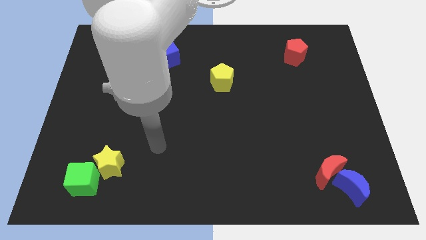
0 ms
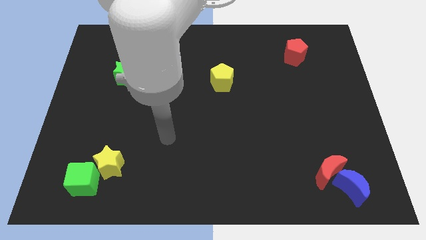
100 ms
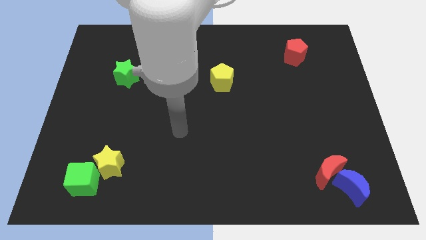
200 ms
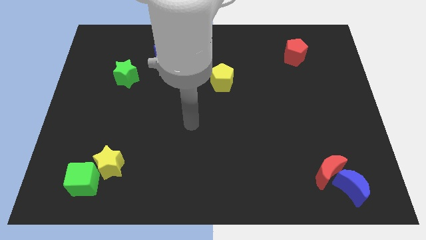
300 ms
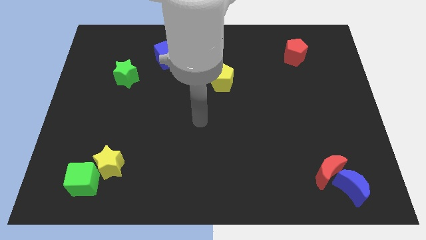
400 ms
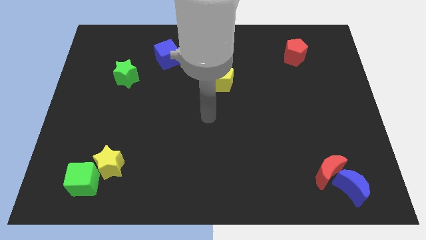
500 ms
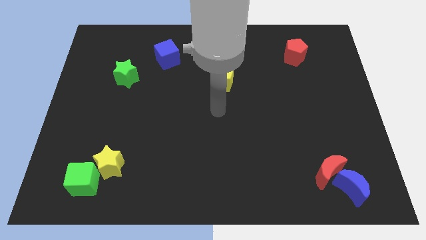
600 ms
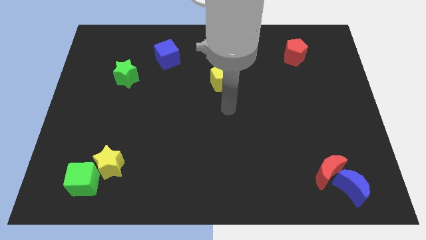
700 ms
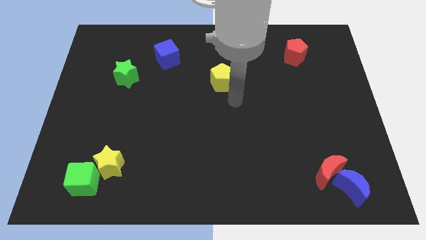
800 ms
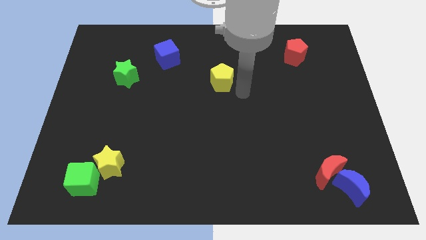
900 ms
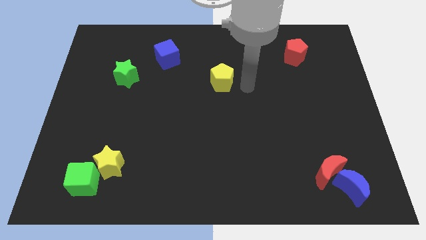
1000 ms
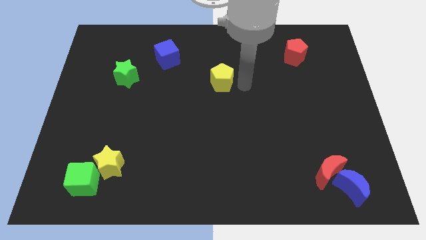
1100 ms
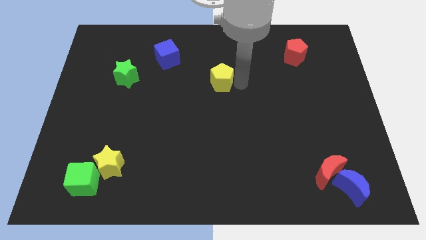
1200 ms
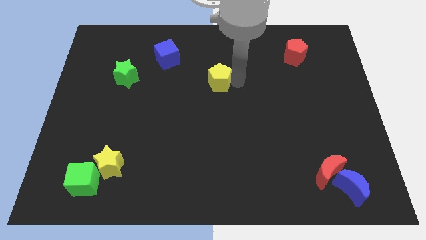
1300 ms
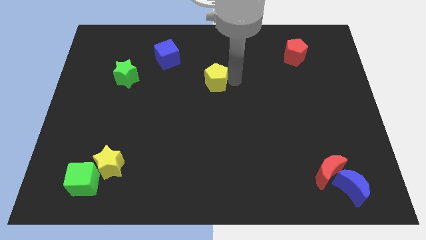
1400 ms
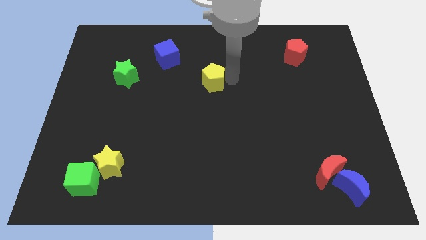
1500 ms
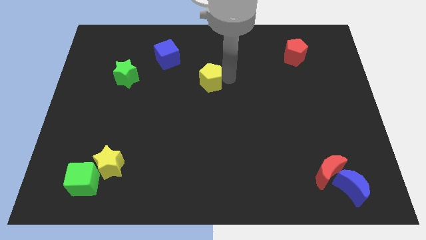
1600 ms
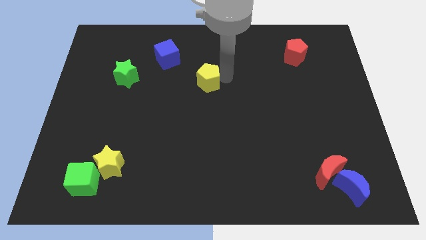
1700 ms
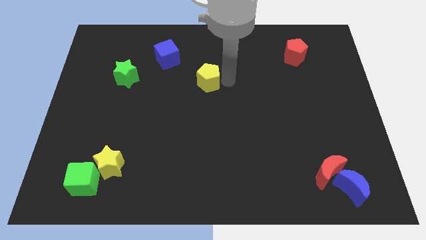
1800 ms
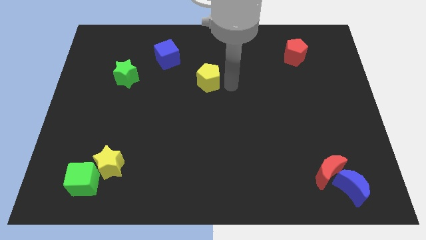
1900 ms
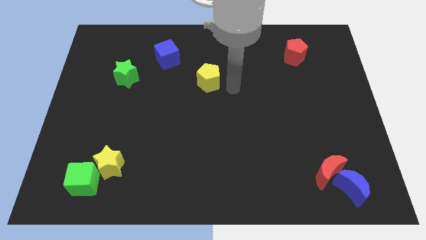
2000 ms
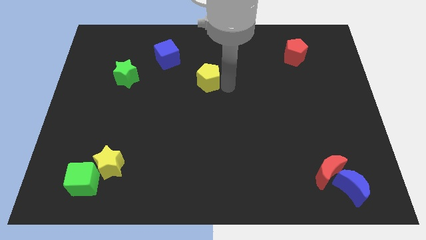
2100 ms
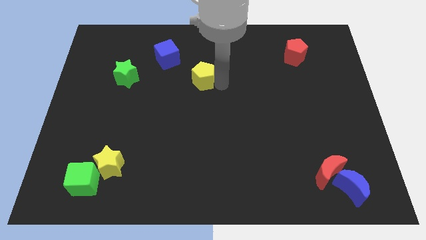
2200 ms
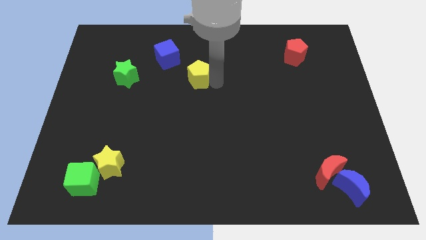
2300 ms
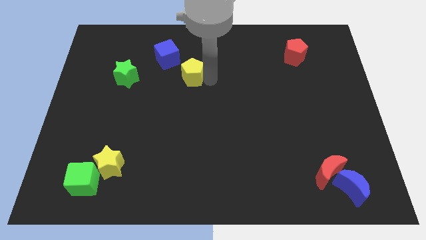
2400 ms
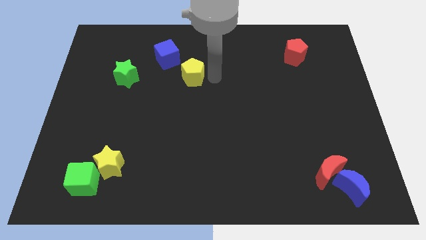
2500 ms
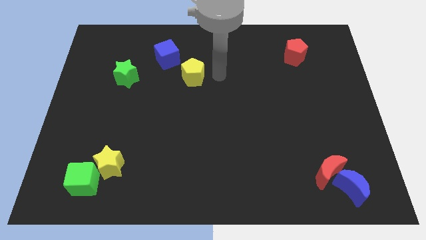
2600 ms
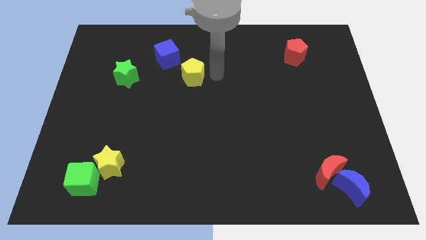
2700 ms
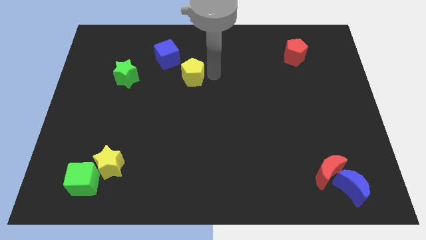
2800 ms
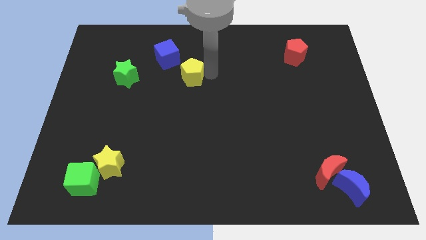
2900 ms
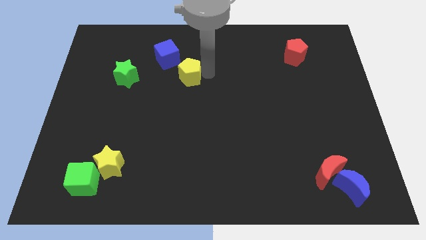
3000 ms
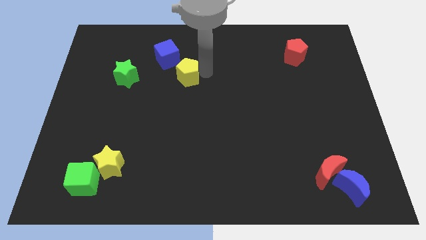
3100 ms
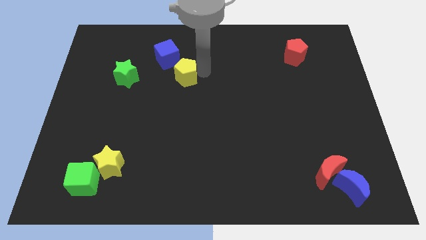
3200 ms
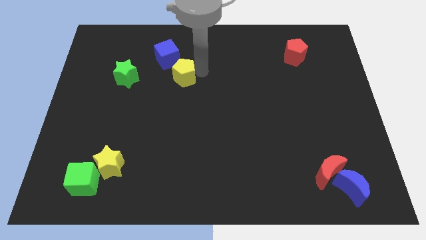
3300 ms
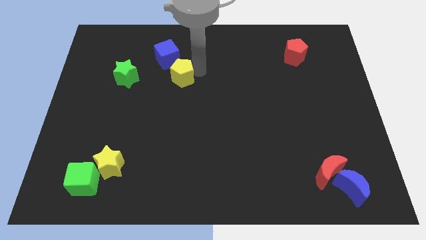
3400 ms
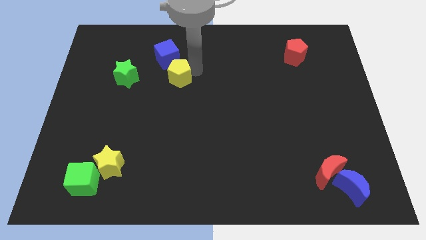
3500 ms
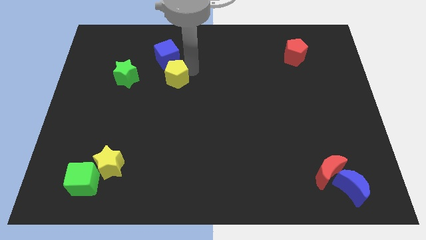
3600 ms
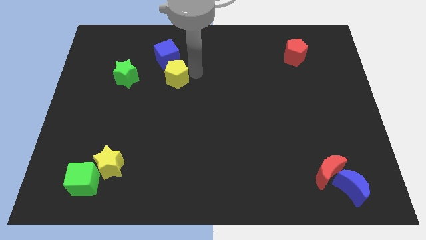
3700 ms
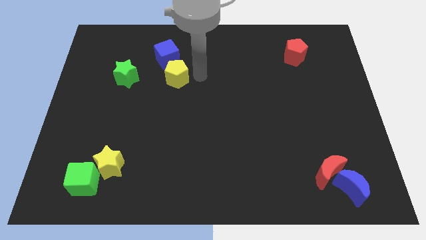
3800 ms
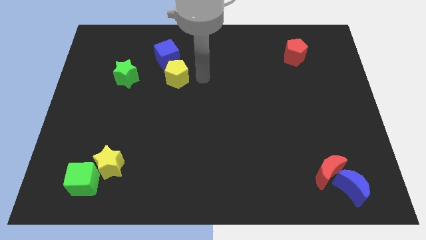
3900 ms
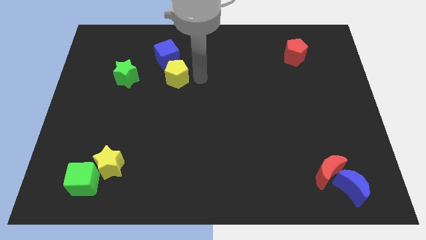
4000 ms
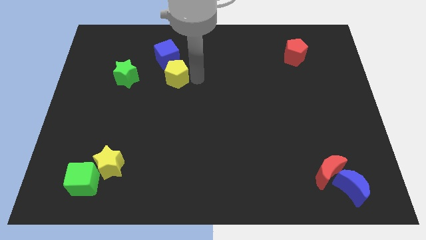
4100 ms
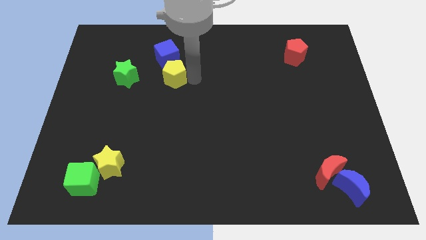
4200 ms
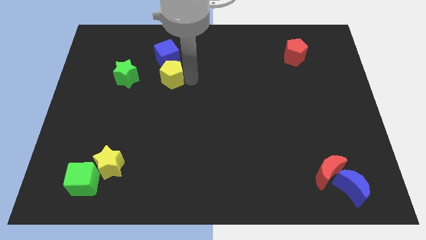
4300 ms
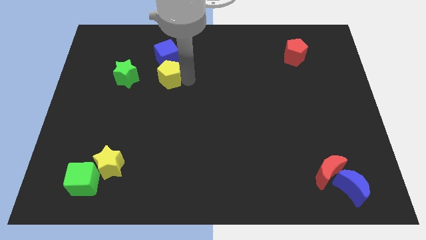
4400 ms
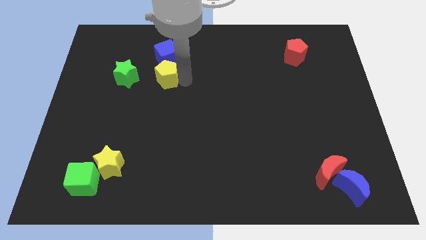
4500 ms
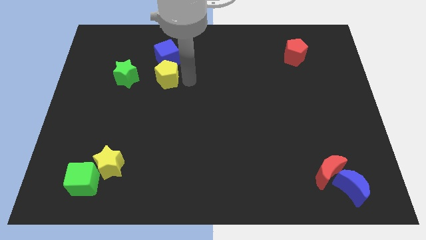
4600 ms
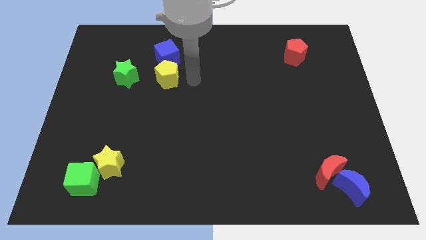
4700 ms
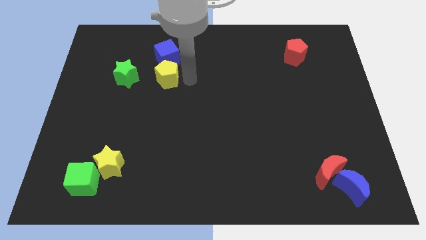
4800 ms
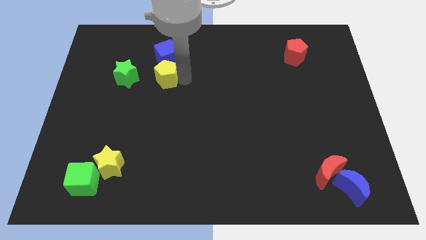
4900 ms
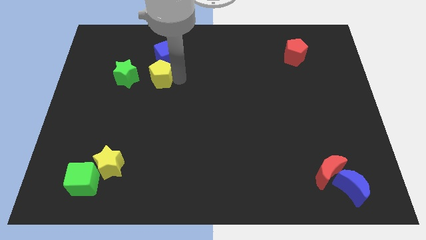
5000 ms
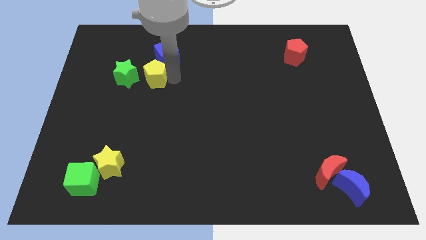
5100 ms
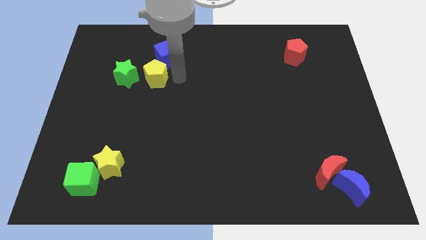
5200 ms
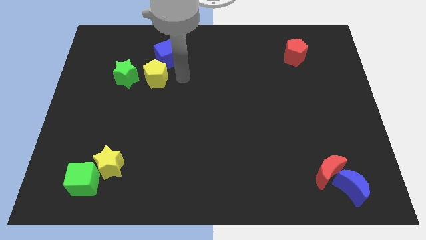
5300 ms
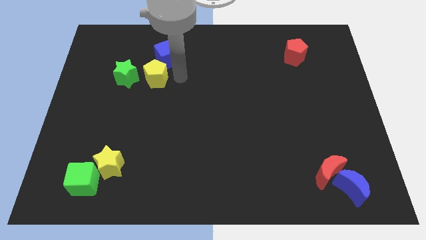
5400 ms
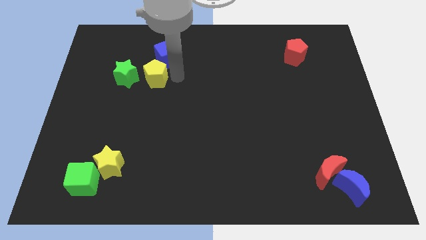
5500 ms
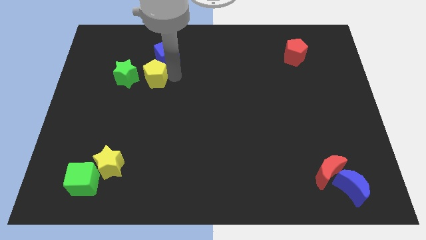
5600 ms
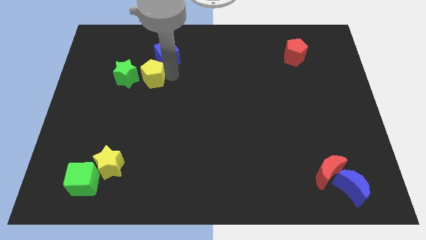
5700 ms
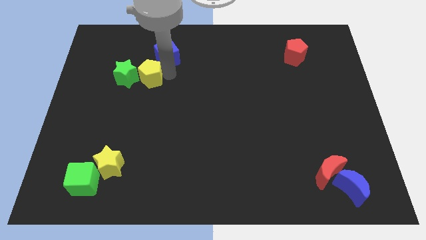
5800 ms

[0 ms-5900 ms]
push the yellow pentagon to the green star

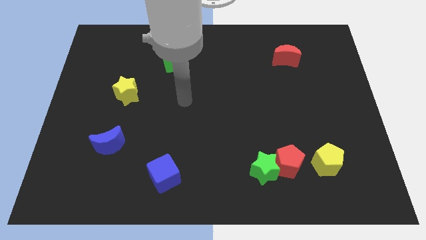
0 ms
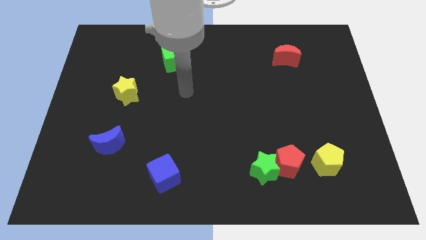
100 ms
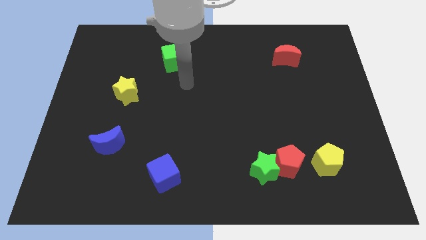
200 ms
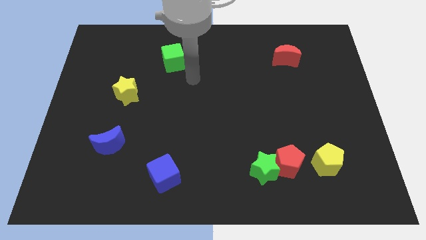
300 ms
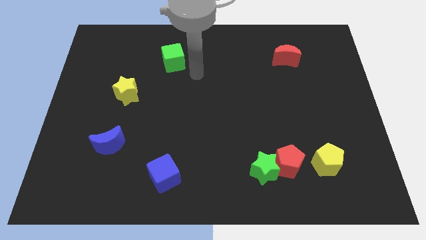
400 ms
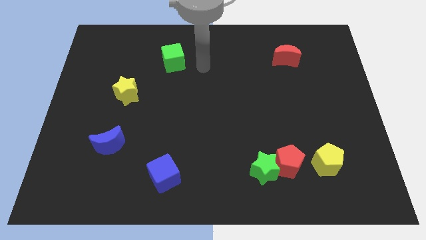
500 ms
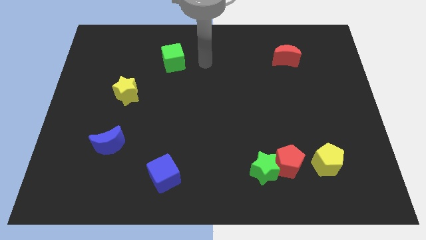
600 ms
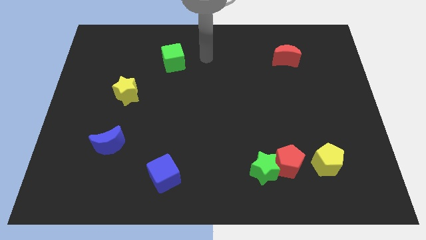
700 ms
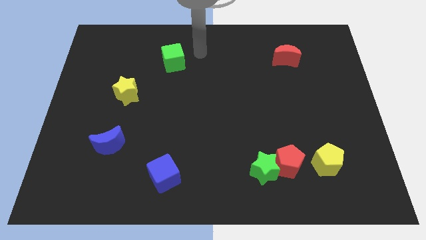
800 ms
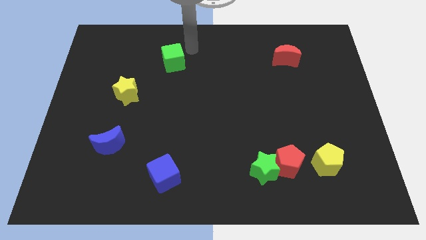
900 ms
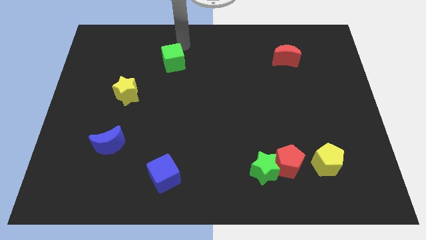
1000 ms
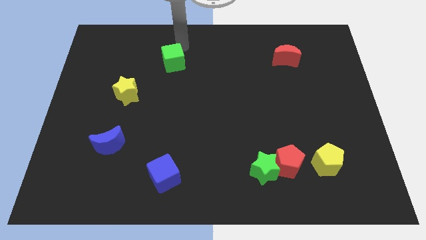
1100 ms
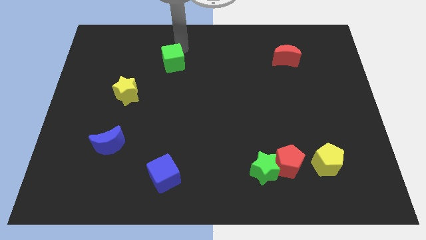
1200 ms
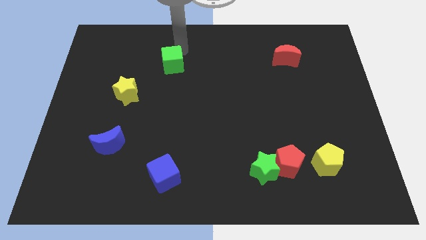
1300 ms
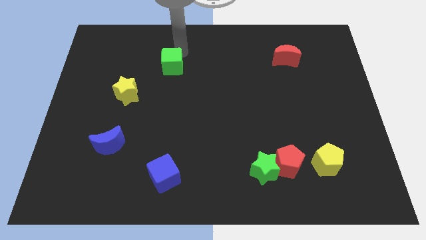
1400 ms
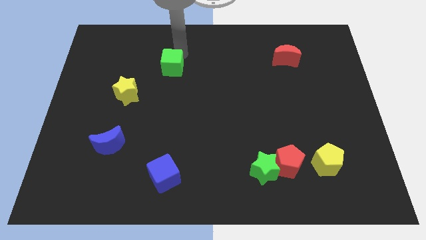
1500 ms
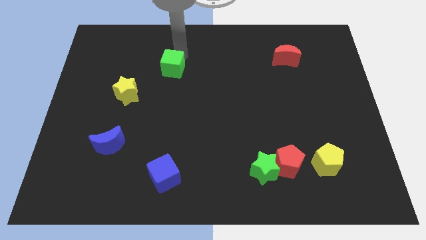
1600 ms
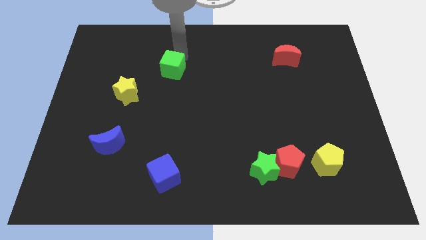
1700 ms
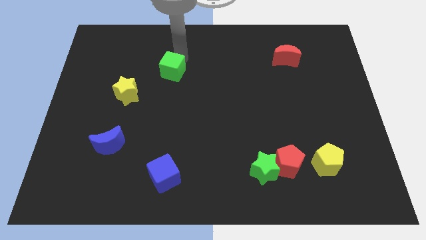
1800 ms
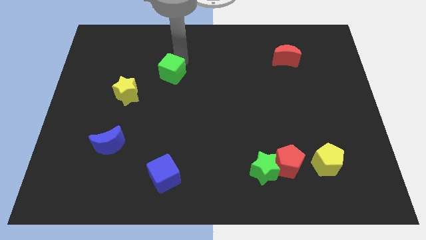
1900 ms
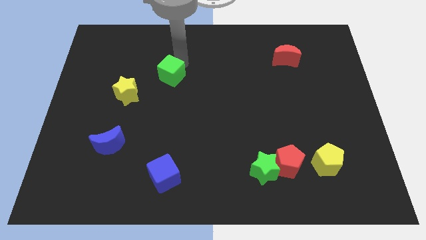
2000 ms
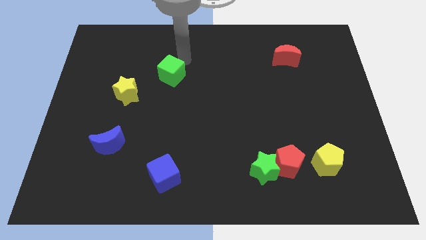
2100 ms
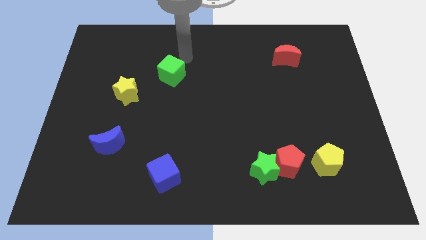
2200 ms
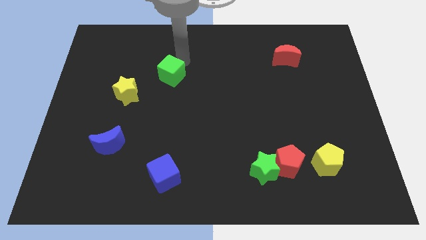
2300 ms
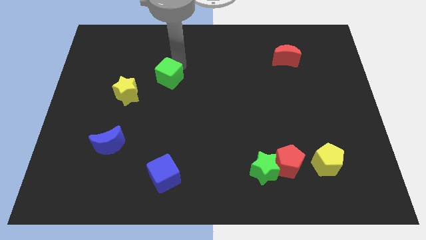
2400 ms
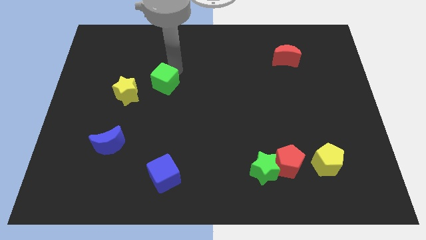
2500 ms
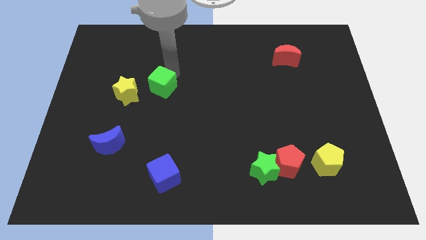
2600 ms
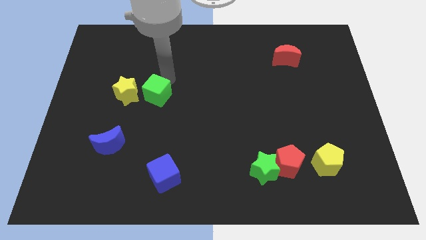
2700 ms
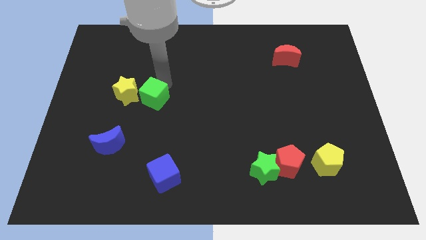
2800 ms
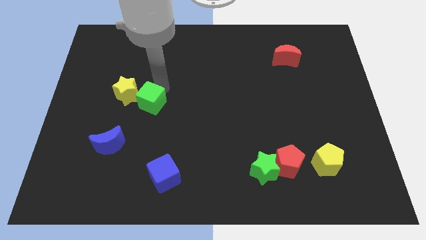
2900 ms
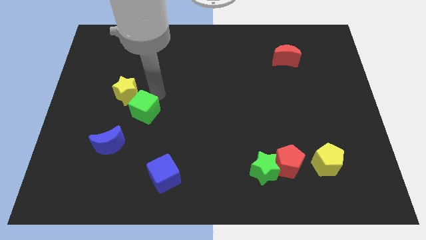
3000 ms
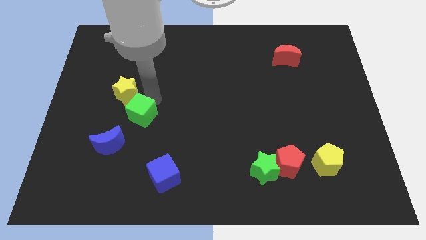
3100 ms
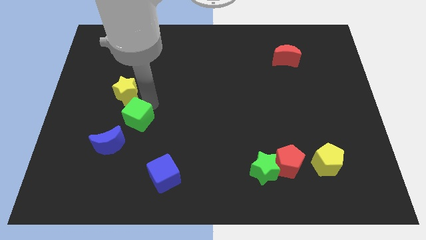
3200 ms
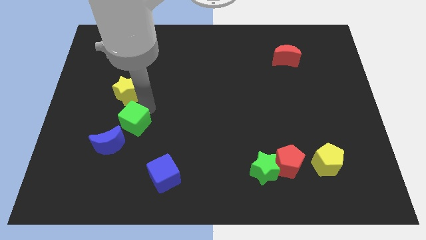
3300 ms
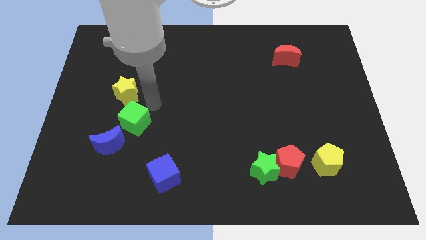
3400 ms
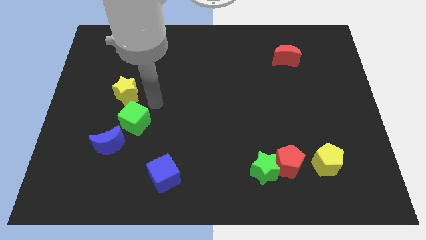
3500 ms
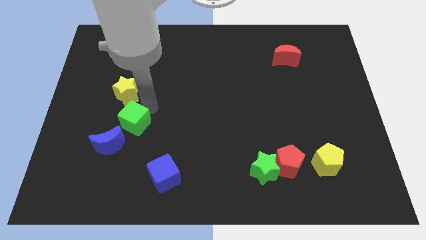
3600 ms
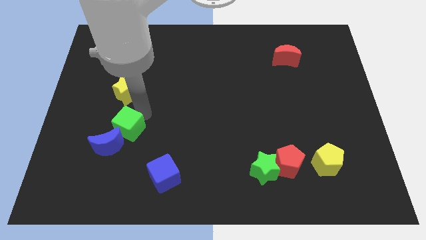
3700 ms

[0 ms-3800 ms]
push the green cube next to the blue moon
